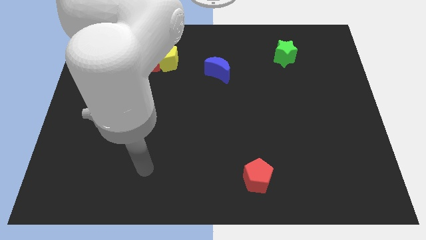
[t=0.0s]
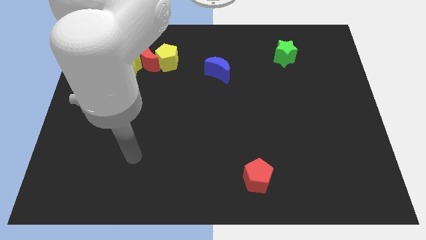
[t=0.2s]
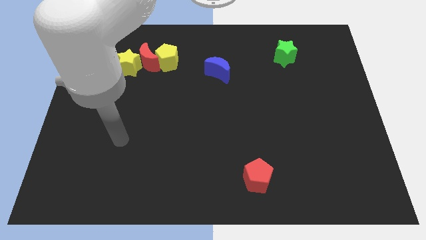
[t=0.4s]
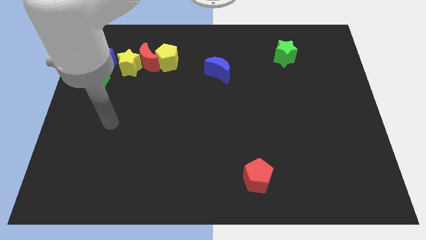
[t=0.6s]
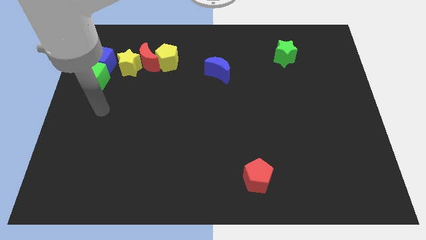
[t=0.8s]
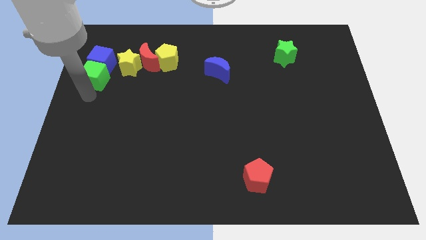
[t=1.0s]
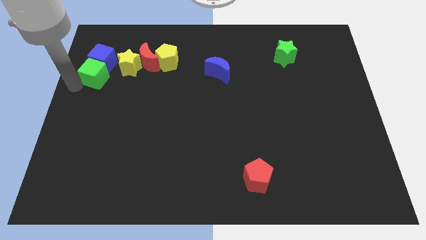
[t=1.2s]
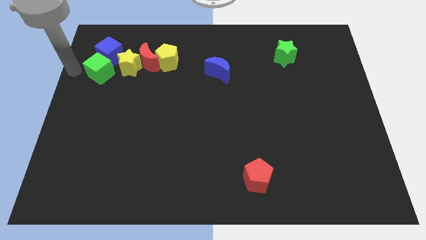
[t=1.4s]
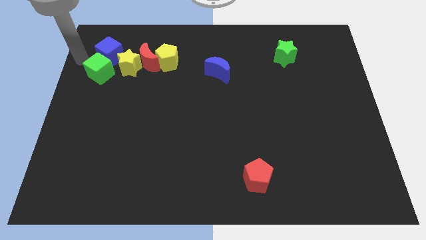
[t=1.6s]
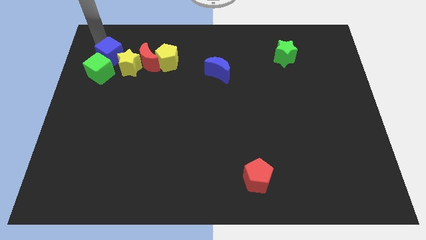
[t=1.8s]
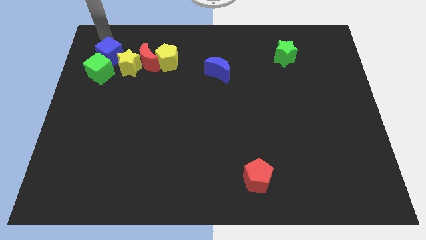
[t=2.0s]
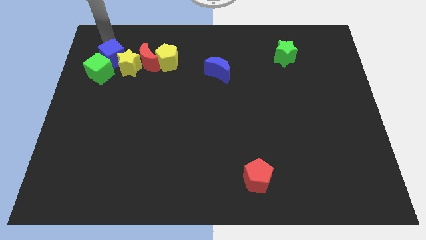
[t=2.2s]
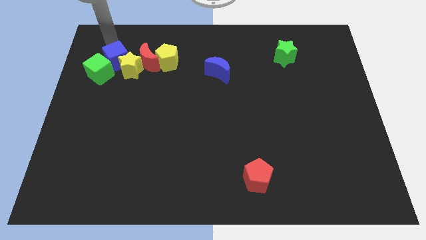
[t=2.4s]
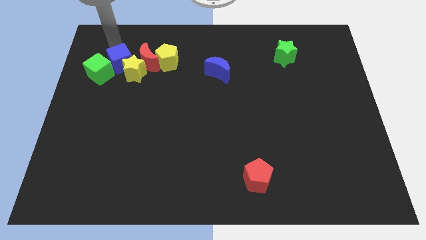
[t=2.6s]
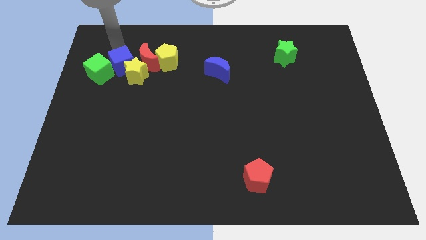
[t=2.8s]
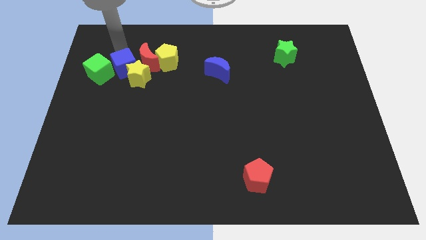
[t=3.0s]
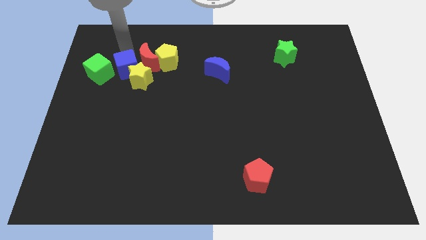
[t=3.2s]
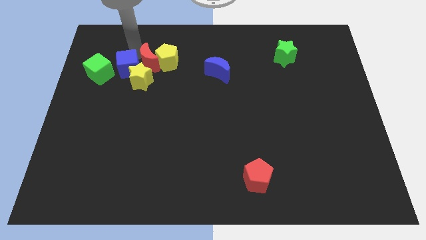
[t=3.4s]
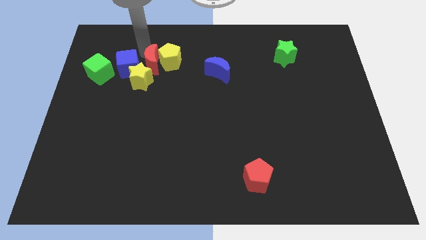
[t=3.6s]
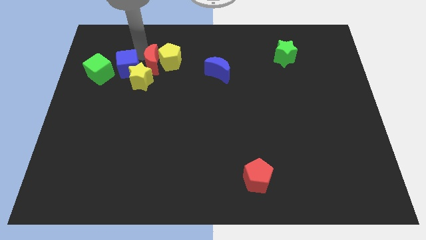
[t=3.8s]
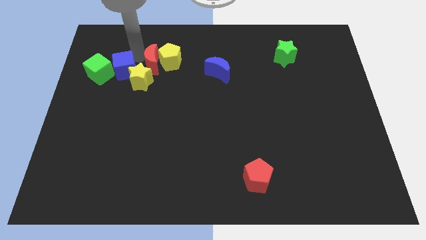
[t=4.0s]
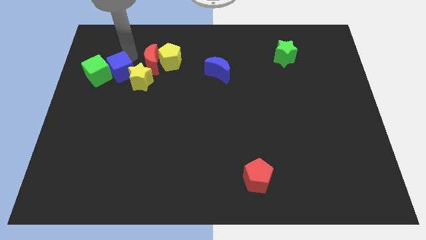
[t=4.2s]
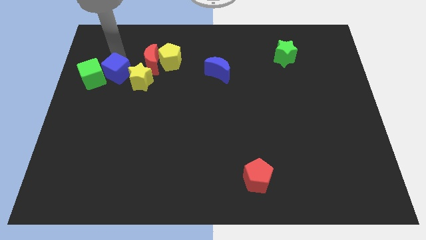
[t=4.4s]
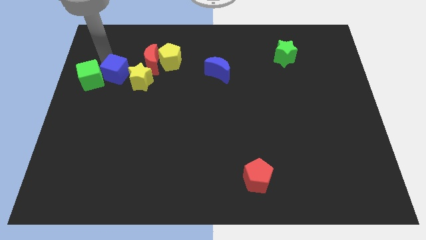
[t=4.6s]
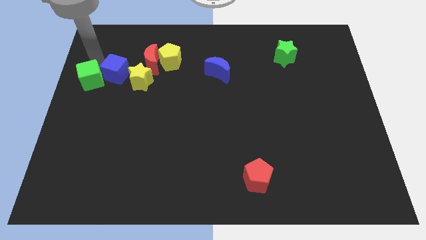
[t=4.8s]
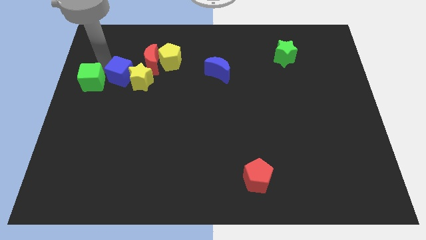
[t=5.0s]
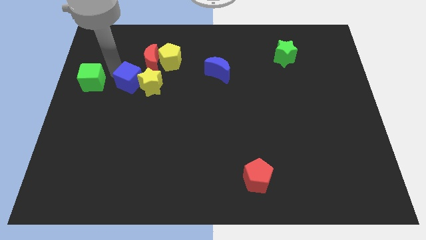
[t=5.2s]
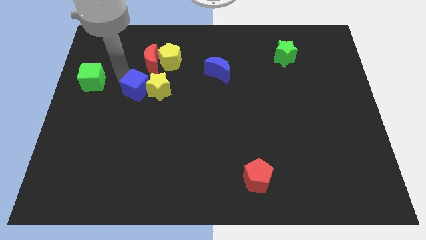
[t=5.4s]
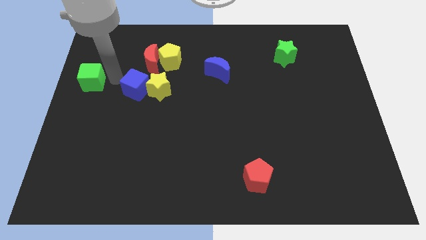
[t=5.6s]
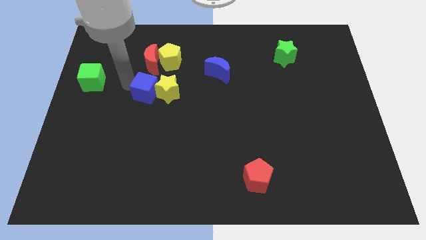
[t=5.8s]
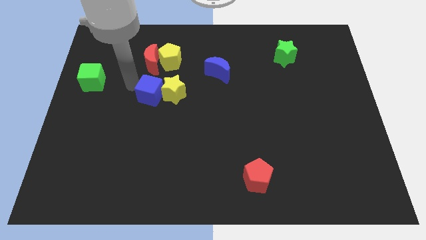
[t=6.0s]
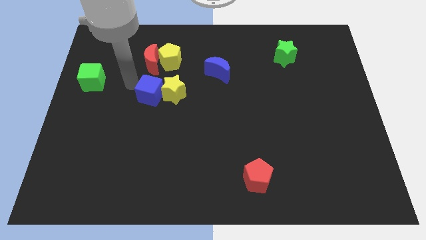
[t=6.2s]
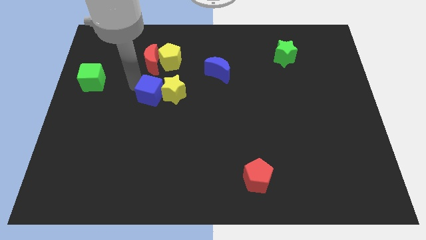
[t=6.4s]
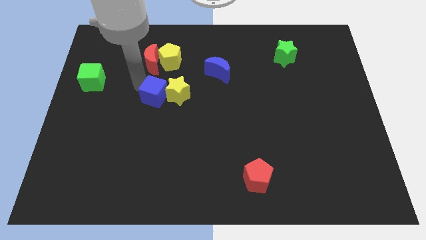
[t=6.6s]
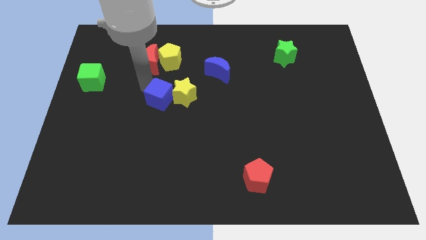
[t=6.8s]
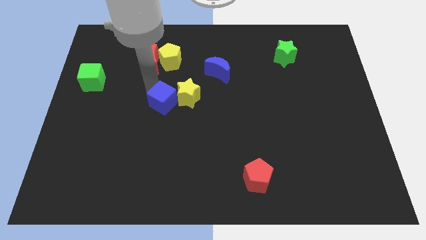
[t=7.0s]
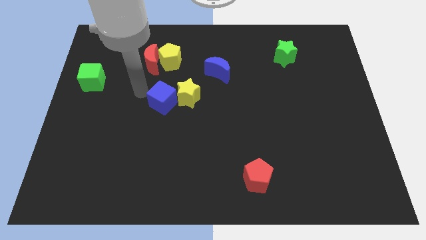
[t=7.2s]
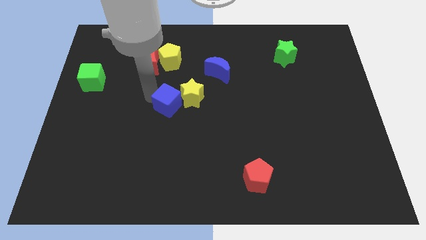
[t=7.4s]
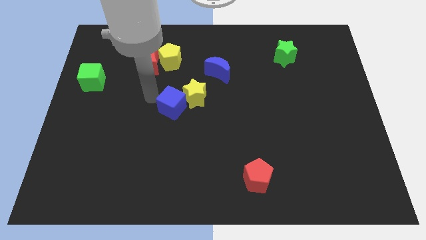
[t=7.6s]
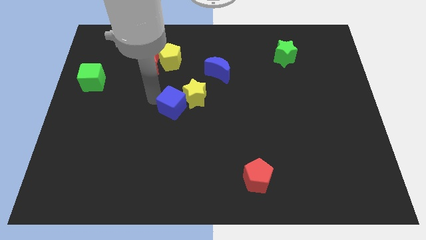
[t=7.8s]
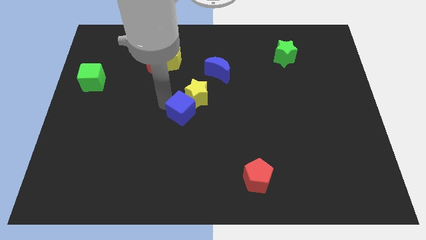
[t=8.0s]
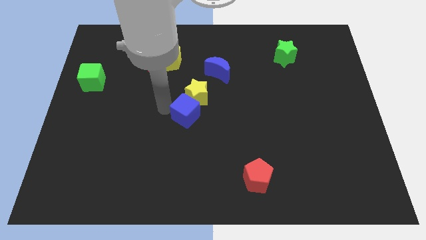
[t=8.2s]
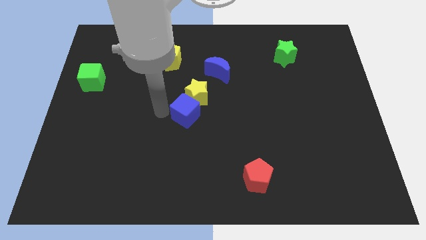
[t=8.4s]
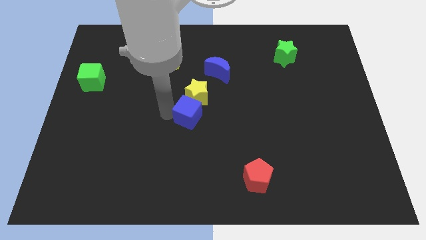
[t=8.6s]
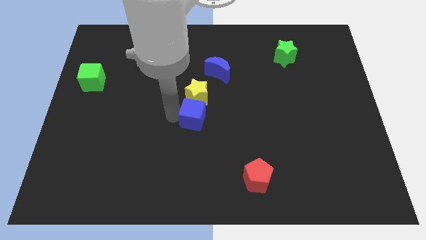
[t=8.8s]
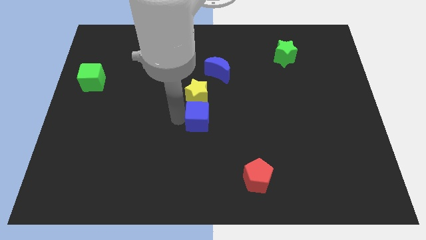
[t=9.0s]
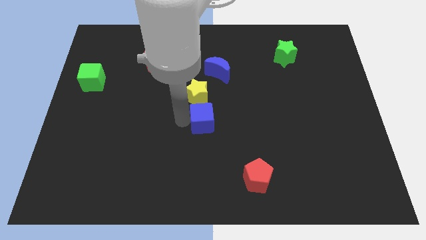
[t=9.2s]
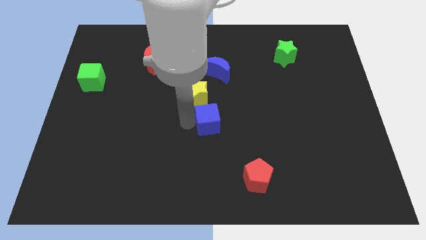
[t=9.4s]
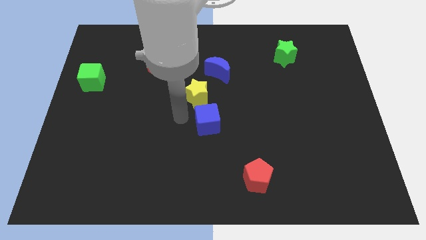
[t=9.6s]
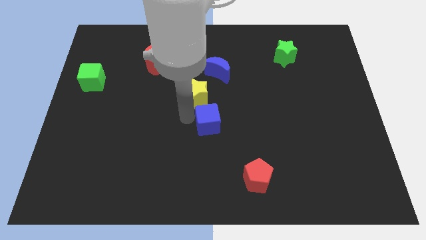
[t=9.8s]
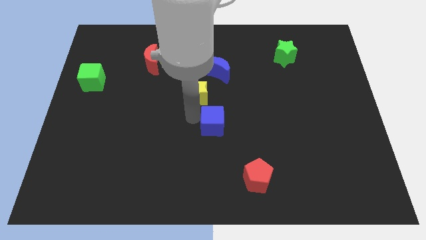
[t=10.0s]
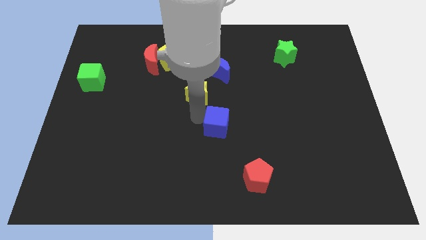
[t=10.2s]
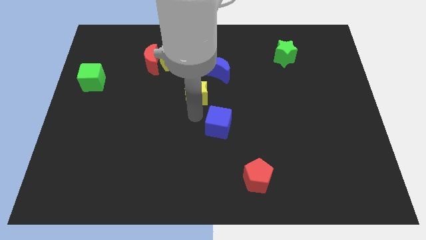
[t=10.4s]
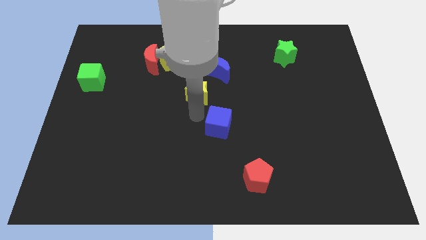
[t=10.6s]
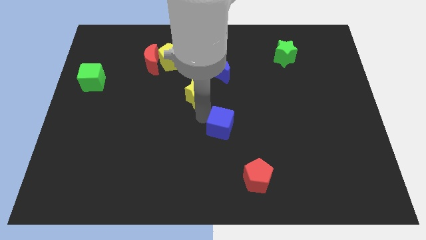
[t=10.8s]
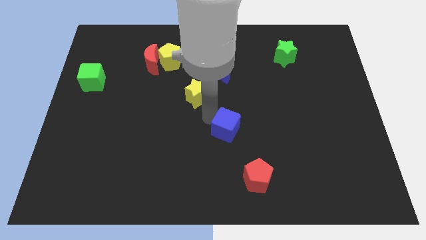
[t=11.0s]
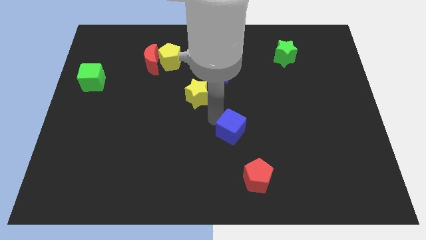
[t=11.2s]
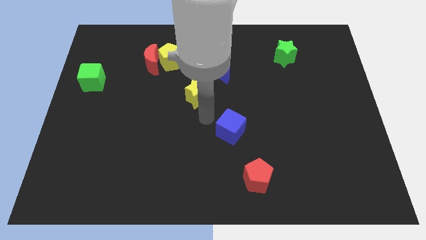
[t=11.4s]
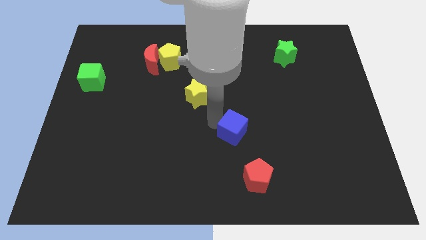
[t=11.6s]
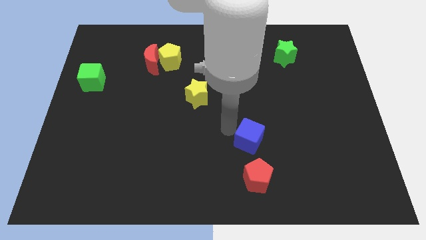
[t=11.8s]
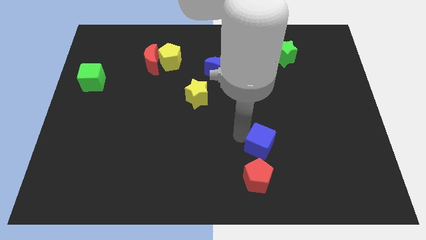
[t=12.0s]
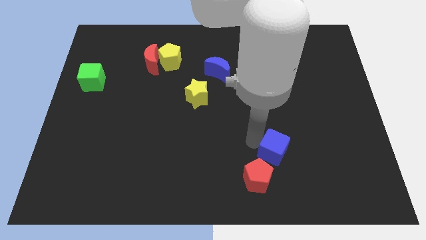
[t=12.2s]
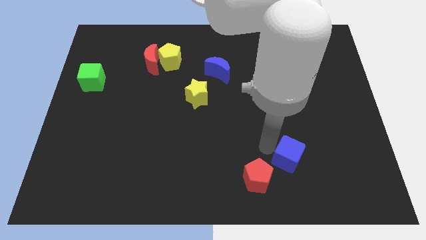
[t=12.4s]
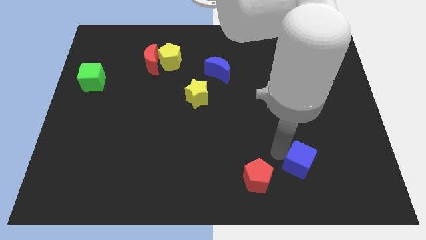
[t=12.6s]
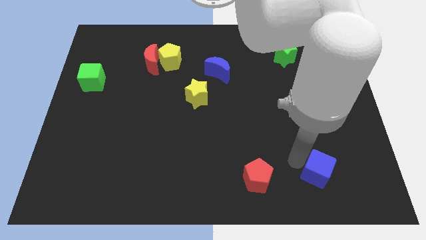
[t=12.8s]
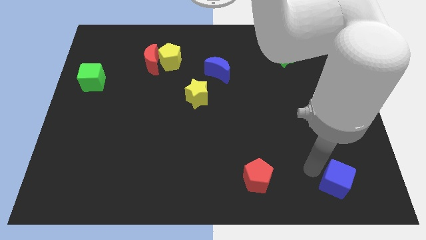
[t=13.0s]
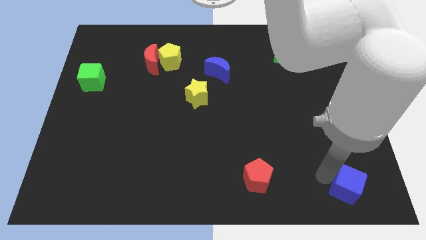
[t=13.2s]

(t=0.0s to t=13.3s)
move the blue cube to the bottom right of the board
